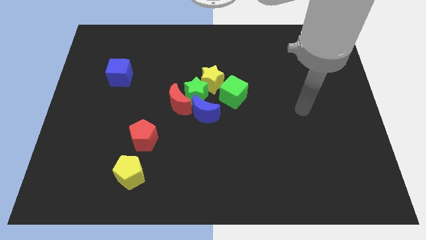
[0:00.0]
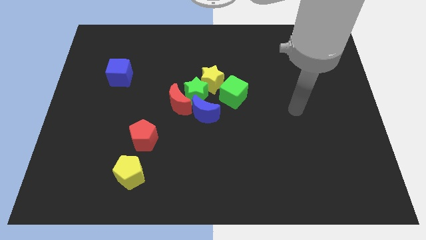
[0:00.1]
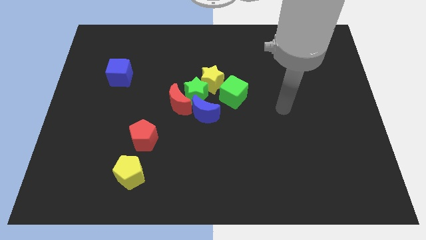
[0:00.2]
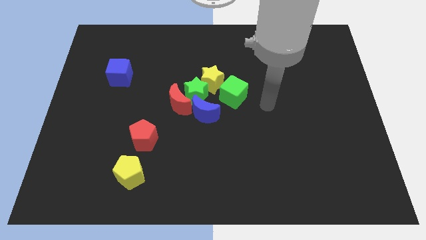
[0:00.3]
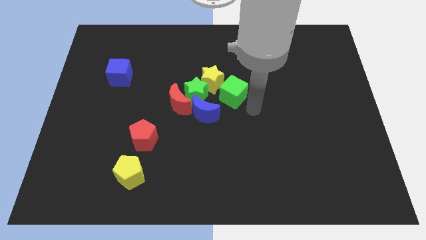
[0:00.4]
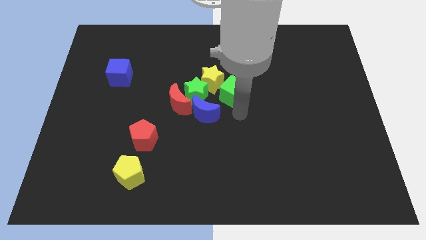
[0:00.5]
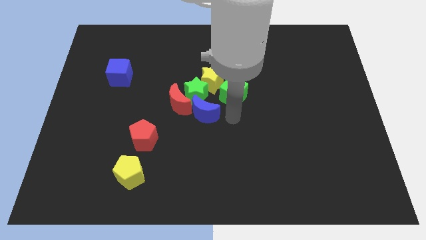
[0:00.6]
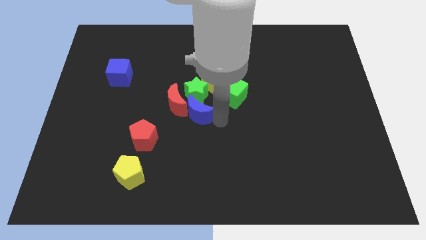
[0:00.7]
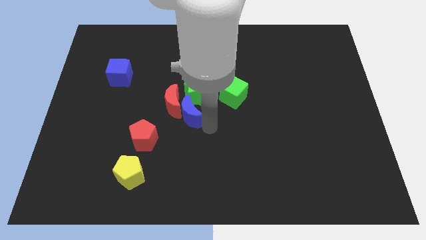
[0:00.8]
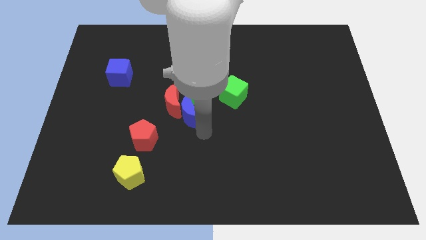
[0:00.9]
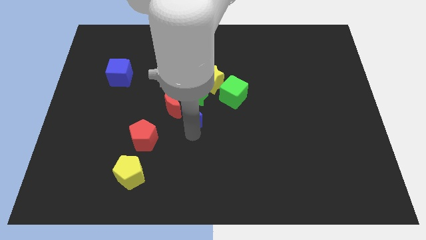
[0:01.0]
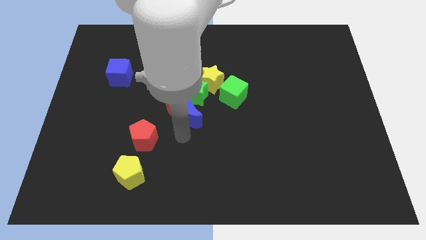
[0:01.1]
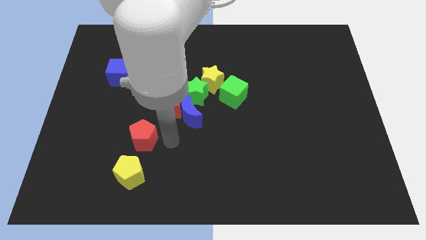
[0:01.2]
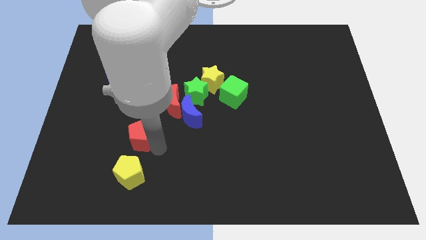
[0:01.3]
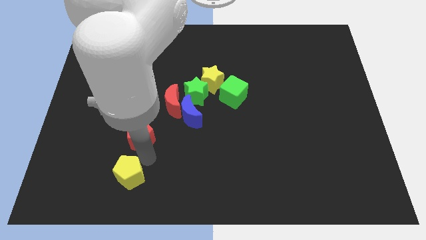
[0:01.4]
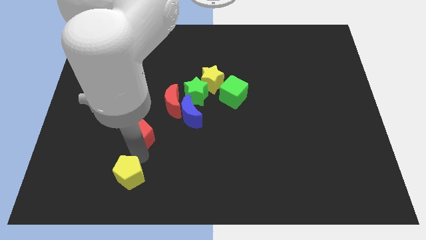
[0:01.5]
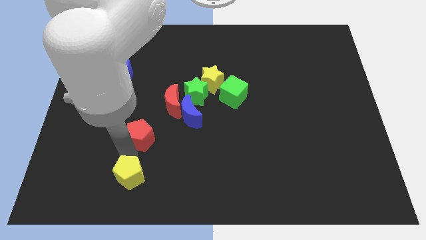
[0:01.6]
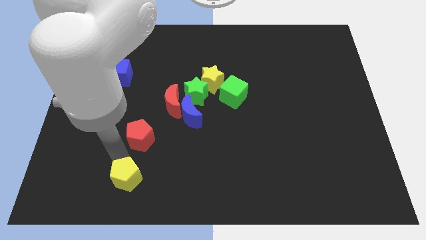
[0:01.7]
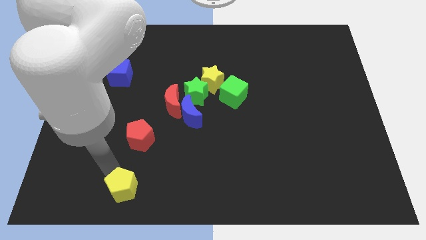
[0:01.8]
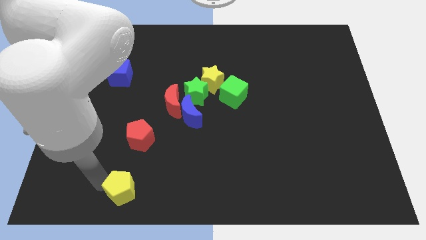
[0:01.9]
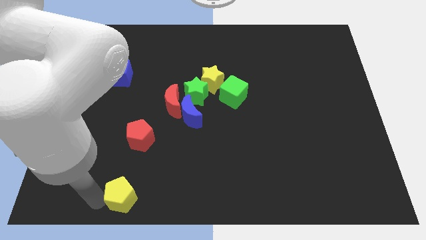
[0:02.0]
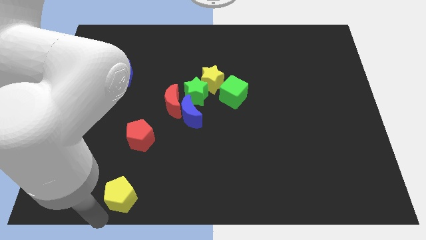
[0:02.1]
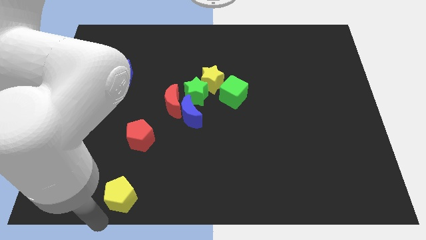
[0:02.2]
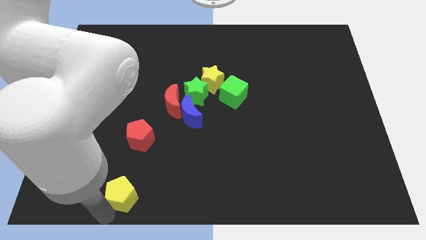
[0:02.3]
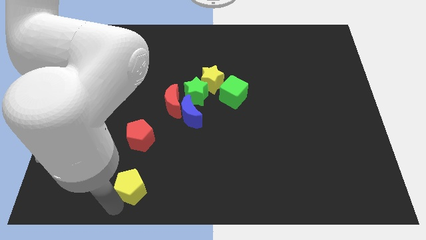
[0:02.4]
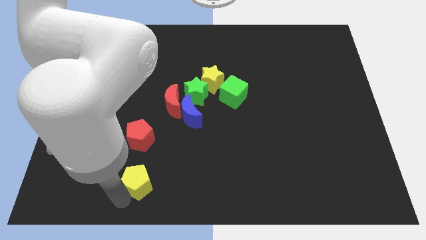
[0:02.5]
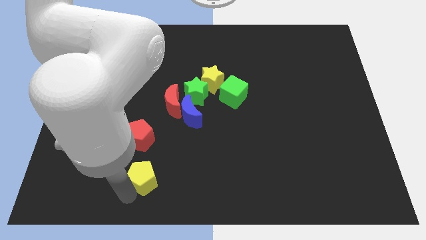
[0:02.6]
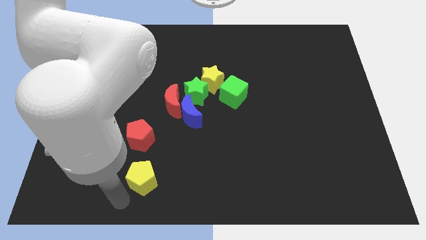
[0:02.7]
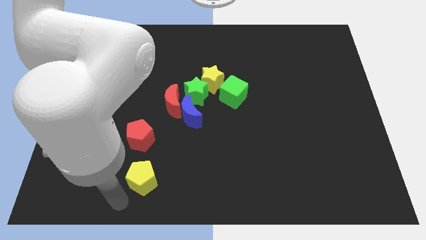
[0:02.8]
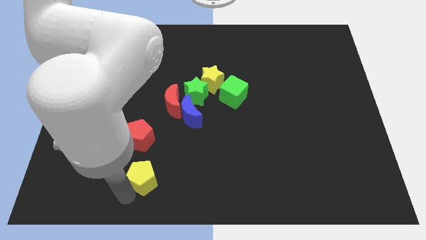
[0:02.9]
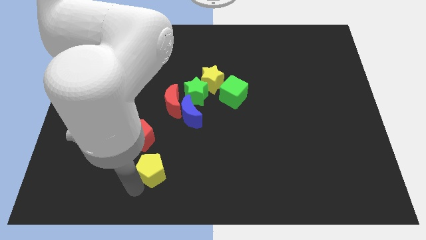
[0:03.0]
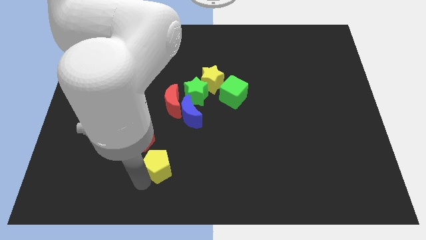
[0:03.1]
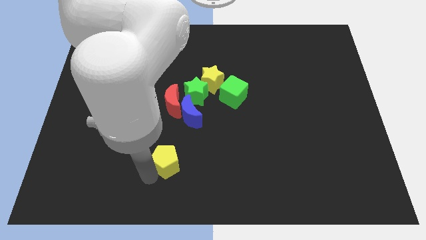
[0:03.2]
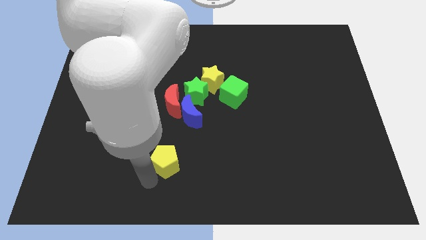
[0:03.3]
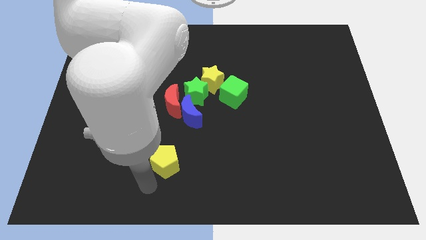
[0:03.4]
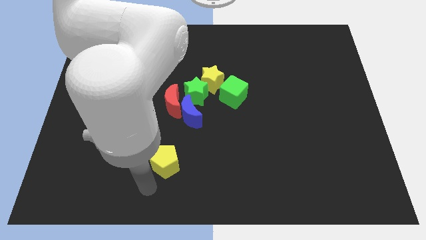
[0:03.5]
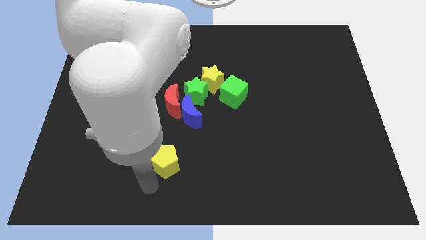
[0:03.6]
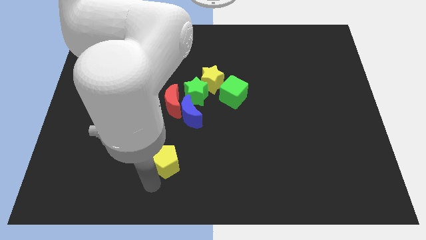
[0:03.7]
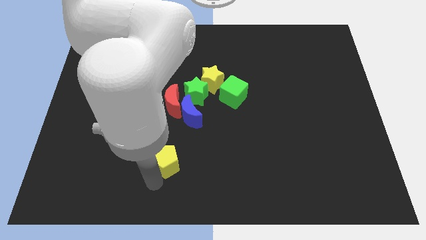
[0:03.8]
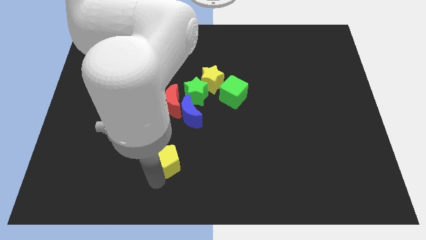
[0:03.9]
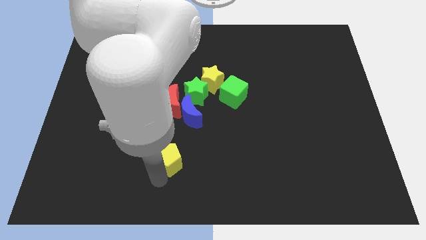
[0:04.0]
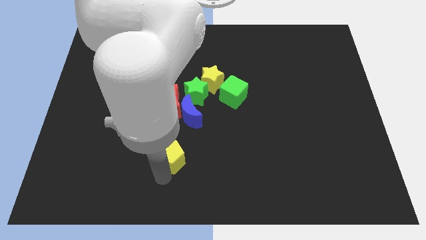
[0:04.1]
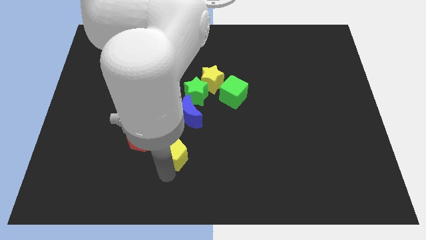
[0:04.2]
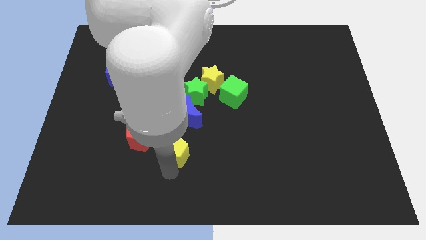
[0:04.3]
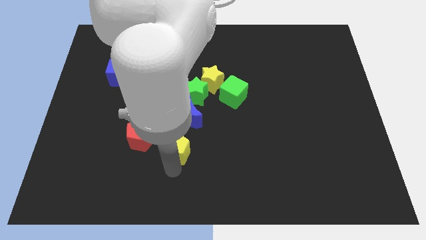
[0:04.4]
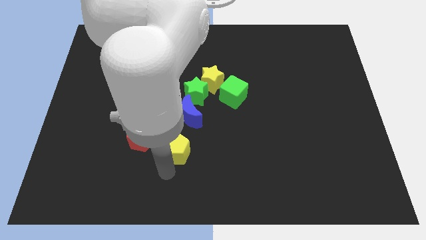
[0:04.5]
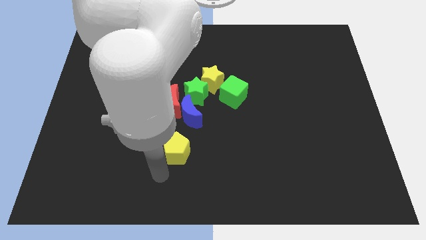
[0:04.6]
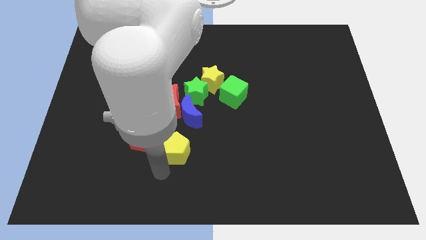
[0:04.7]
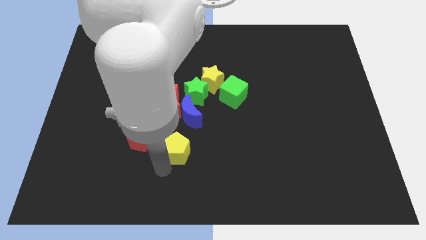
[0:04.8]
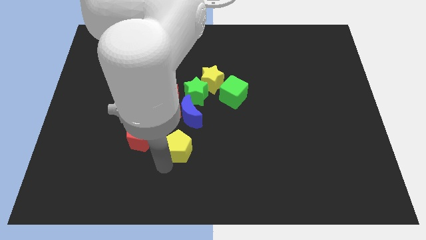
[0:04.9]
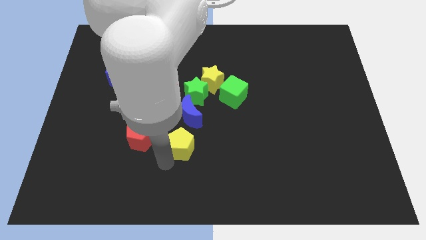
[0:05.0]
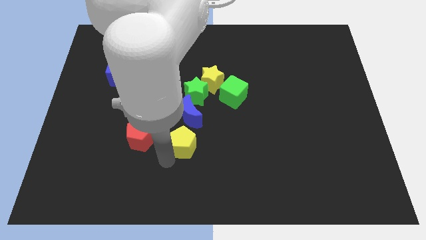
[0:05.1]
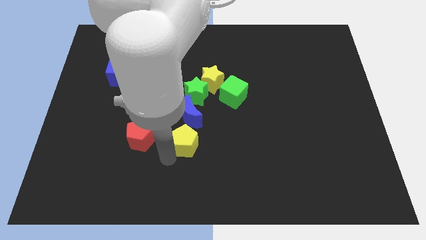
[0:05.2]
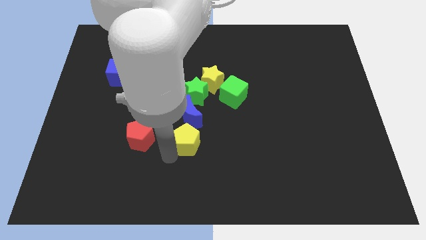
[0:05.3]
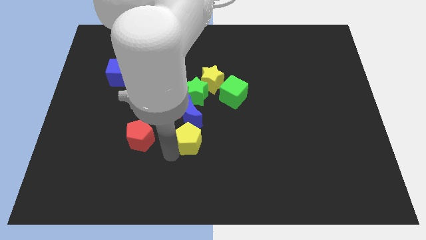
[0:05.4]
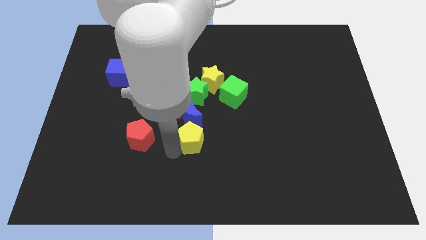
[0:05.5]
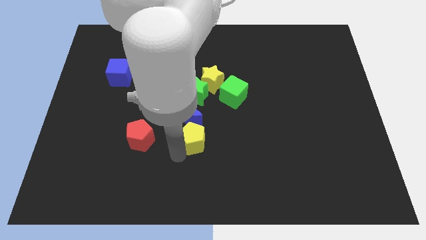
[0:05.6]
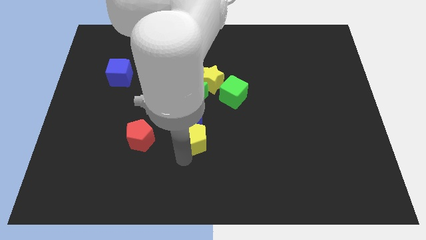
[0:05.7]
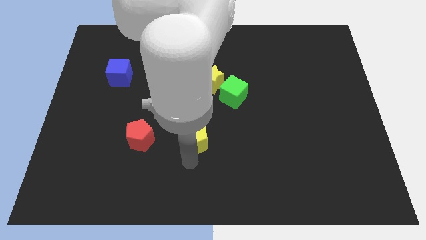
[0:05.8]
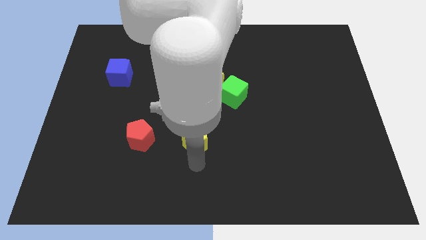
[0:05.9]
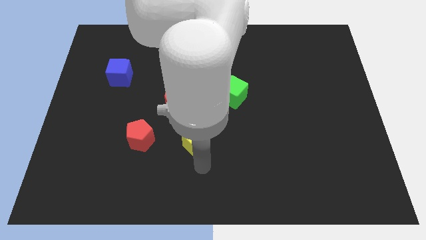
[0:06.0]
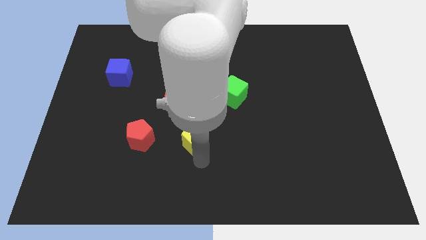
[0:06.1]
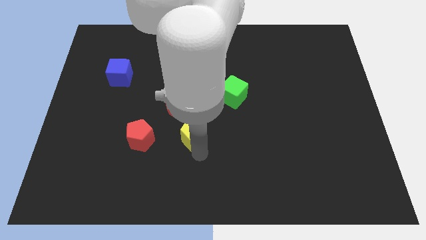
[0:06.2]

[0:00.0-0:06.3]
put the yellow pentagon towards the blue moon

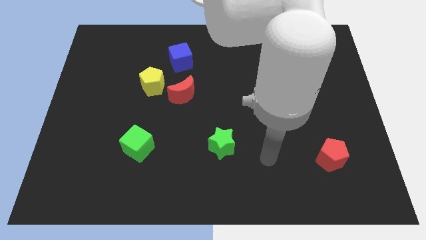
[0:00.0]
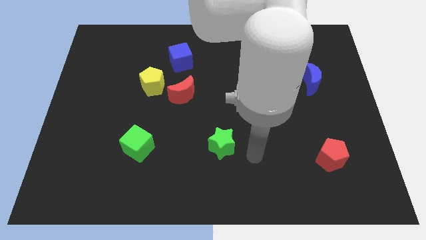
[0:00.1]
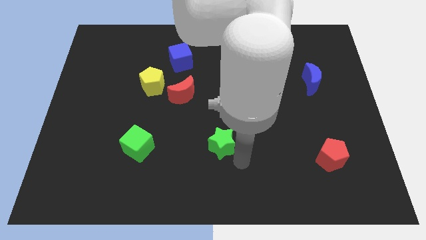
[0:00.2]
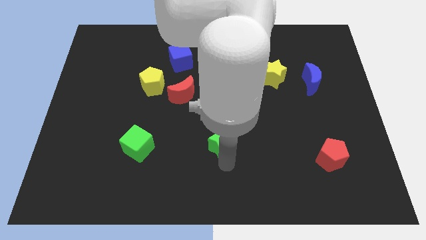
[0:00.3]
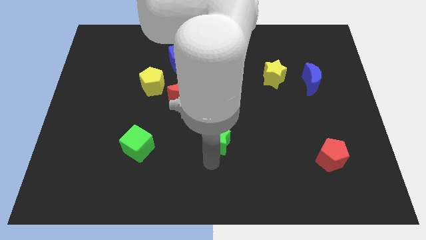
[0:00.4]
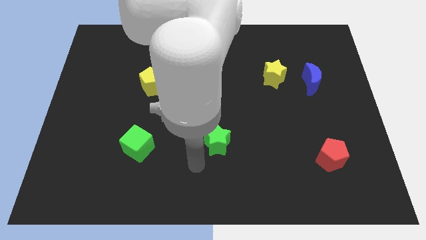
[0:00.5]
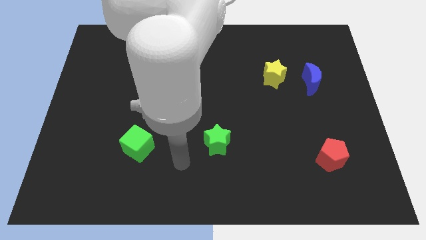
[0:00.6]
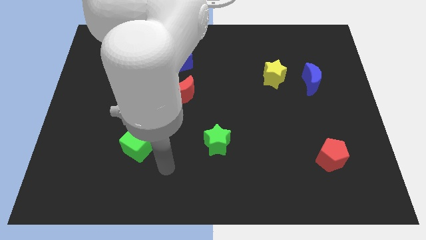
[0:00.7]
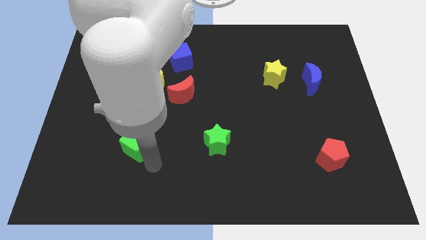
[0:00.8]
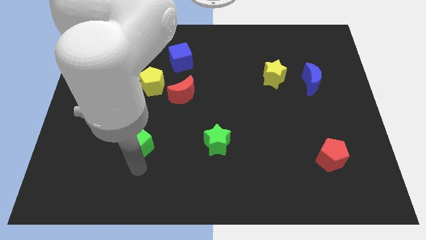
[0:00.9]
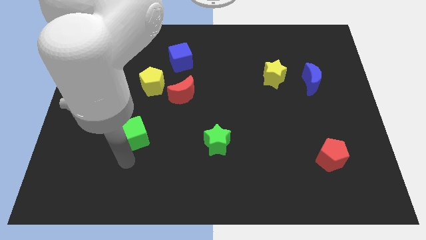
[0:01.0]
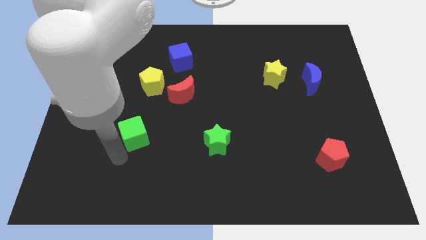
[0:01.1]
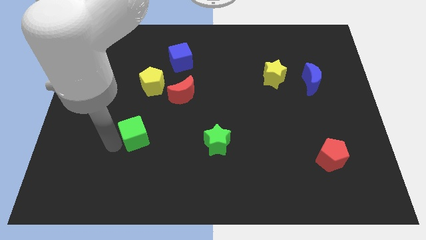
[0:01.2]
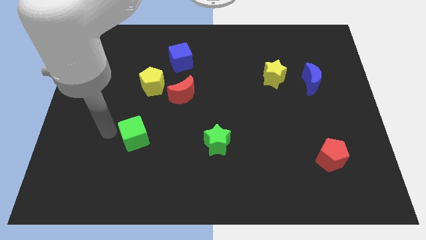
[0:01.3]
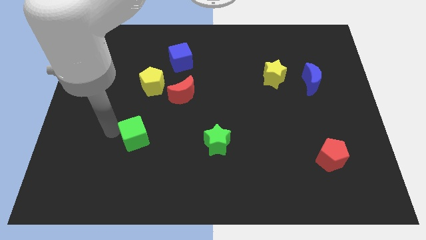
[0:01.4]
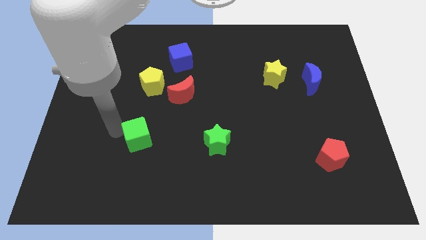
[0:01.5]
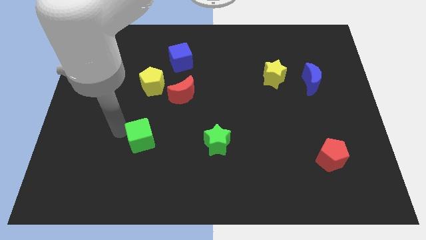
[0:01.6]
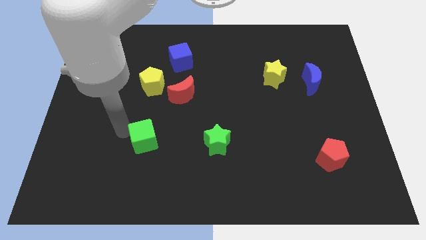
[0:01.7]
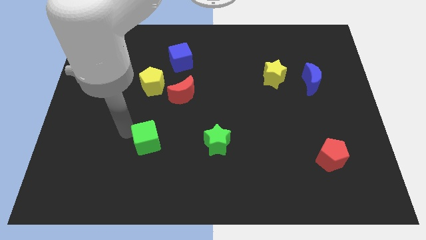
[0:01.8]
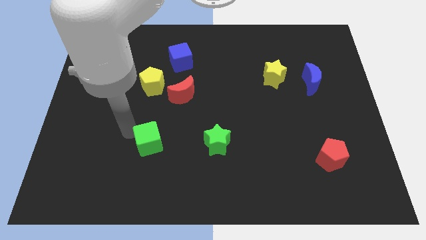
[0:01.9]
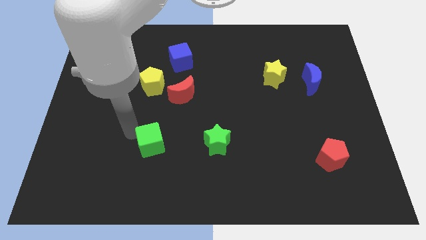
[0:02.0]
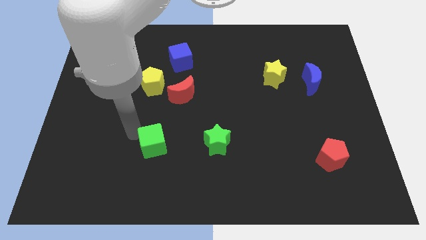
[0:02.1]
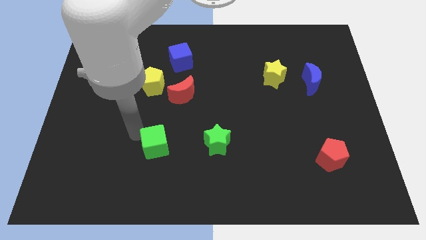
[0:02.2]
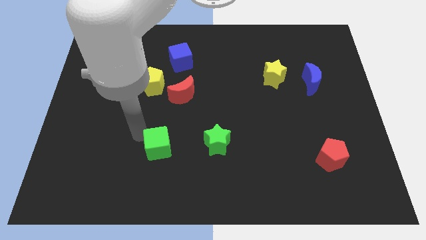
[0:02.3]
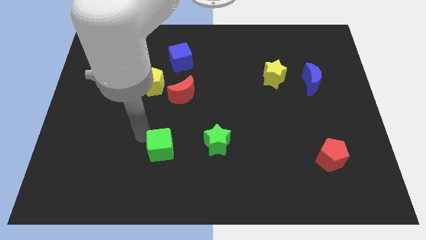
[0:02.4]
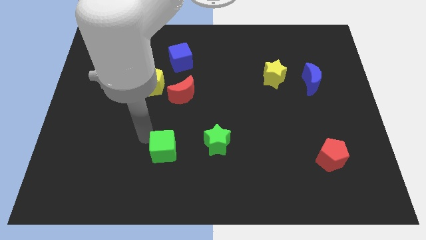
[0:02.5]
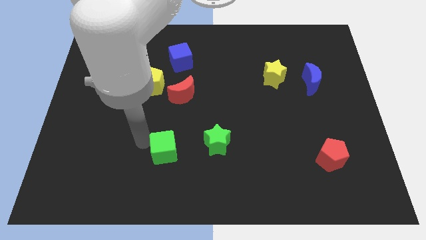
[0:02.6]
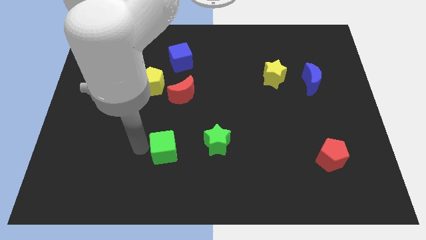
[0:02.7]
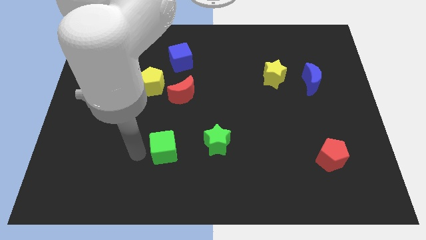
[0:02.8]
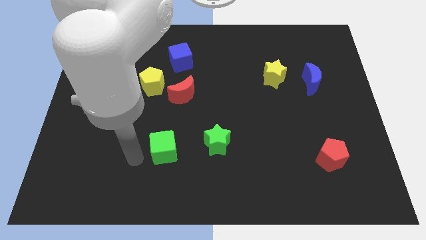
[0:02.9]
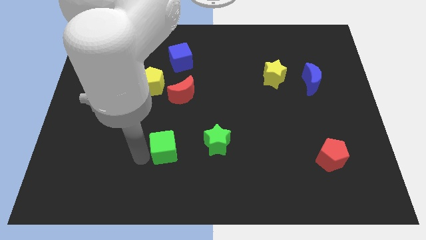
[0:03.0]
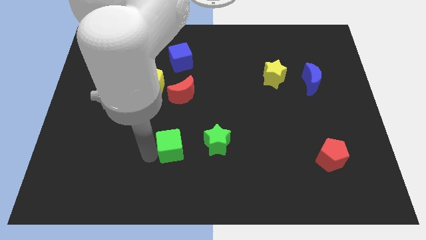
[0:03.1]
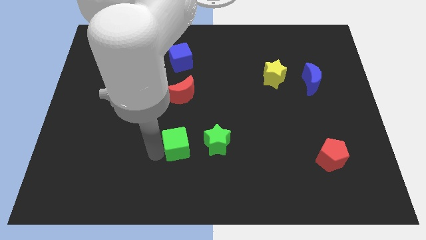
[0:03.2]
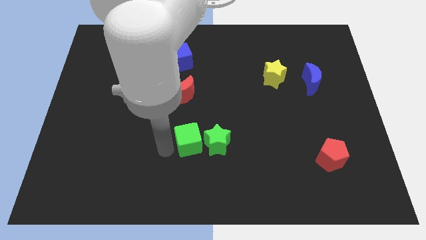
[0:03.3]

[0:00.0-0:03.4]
put the green cube towards the green star
